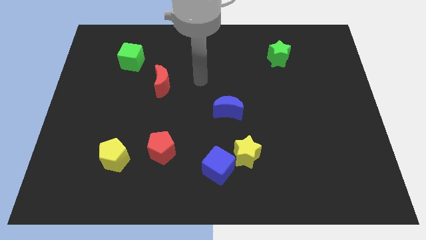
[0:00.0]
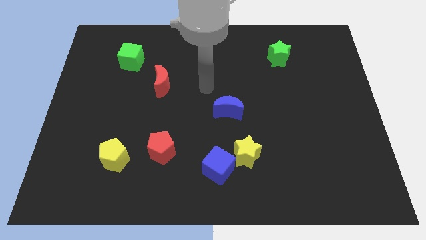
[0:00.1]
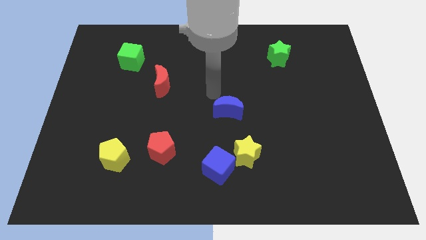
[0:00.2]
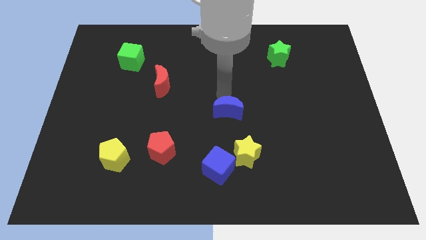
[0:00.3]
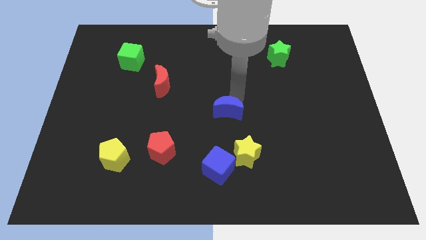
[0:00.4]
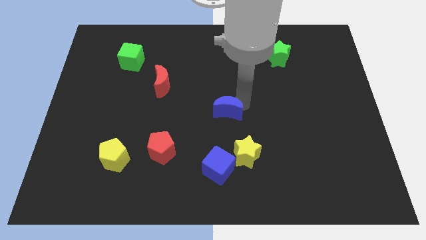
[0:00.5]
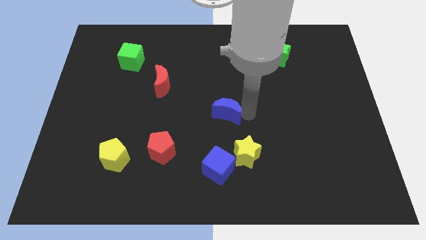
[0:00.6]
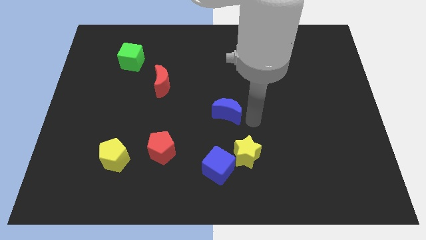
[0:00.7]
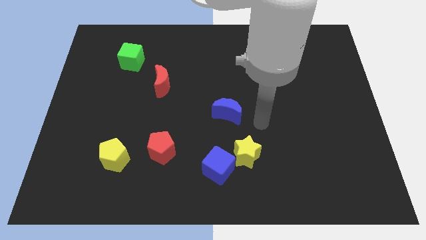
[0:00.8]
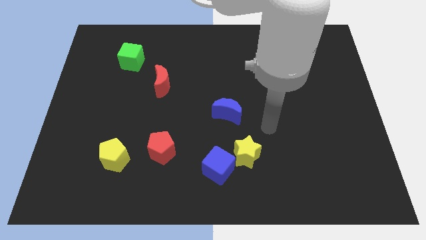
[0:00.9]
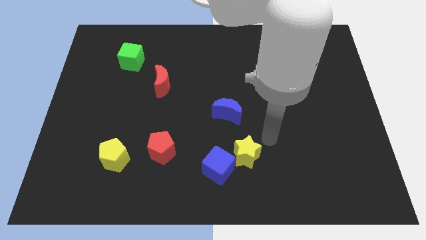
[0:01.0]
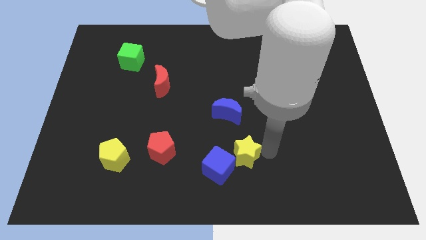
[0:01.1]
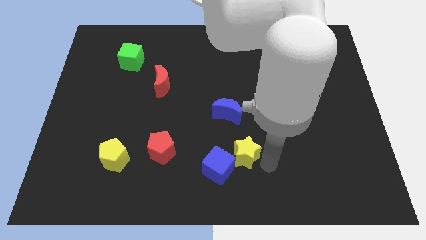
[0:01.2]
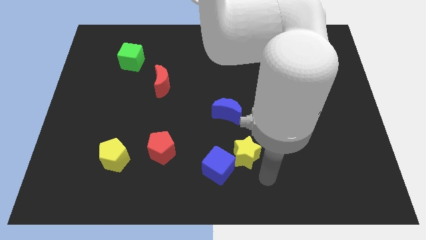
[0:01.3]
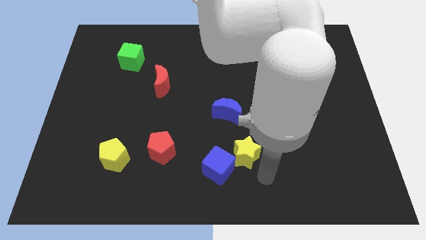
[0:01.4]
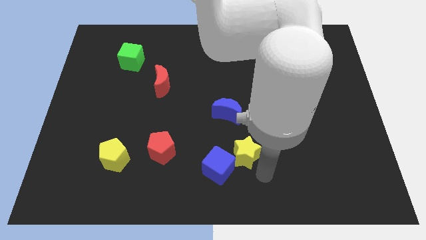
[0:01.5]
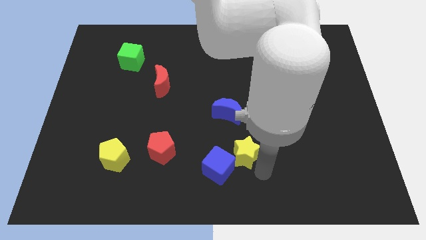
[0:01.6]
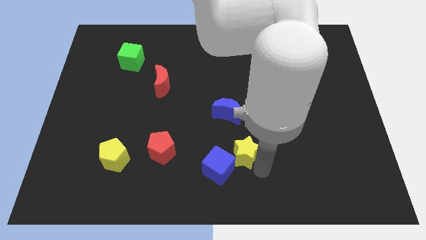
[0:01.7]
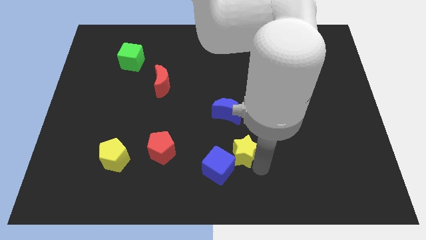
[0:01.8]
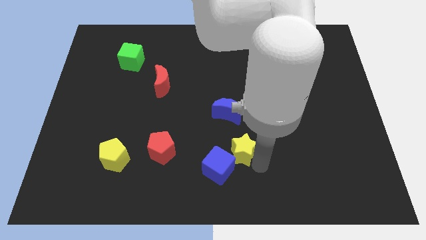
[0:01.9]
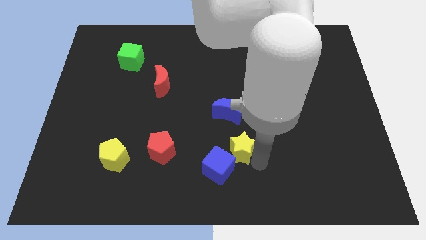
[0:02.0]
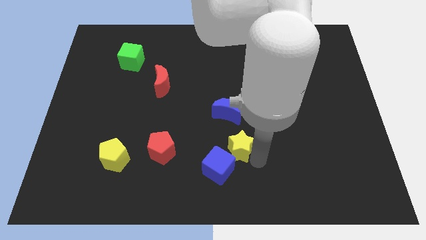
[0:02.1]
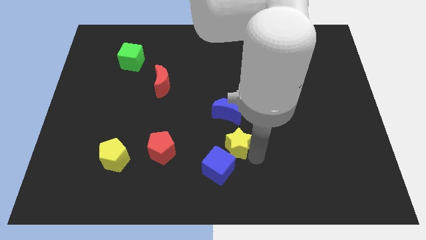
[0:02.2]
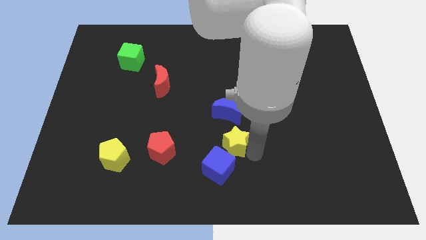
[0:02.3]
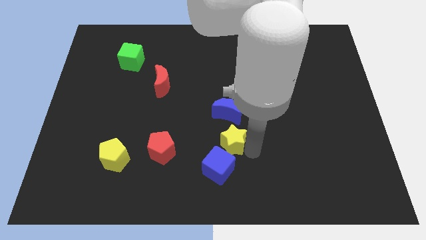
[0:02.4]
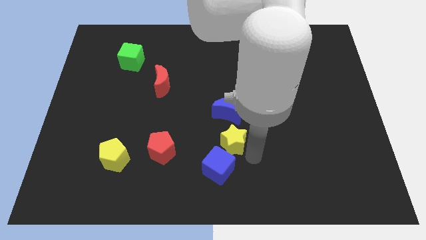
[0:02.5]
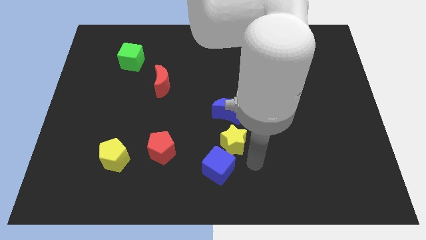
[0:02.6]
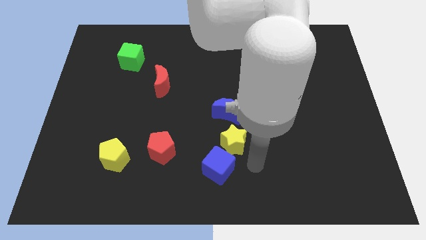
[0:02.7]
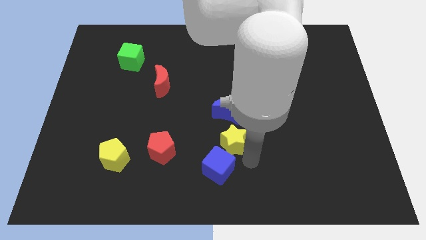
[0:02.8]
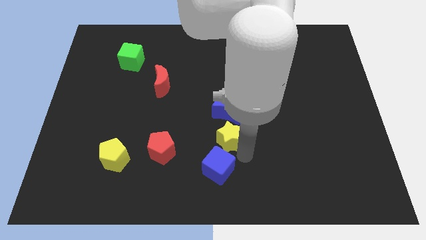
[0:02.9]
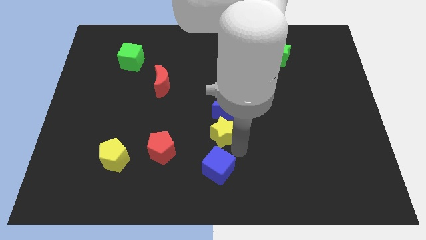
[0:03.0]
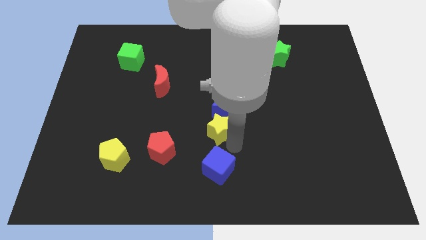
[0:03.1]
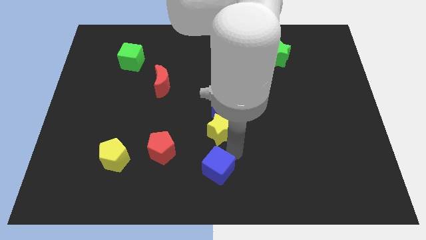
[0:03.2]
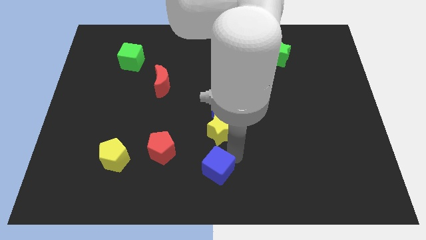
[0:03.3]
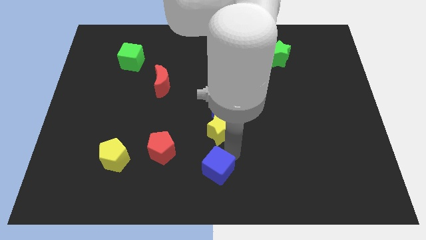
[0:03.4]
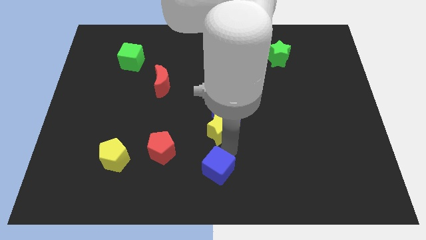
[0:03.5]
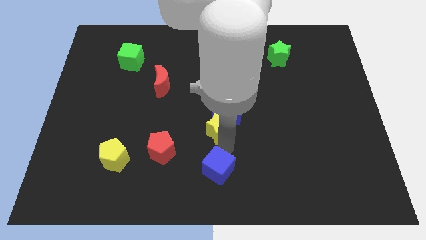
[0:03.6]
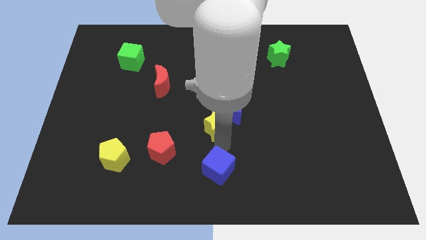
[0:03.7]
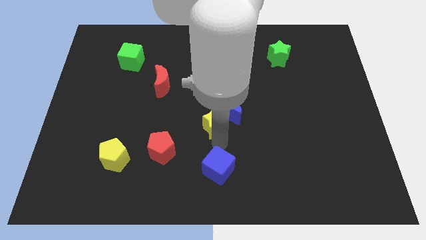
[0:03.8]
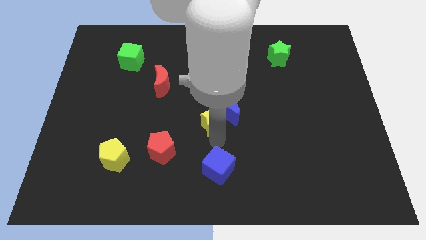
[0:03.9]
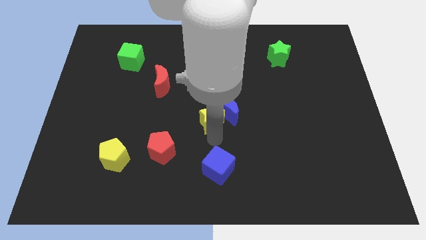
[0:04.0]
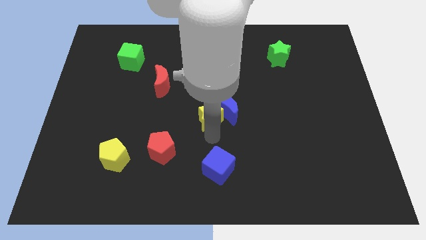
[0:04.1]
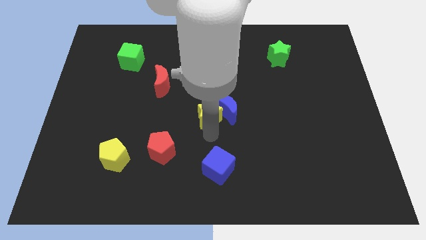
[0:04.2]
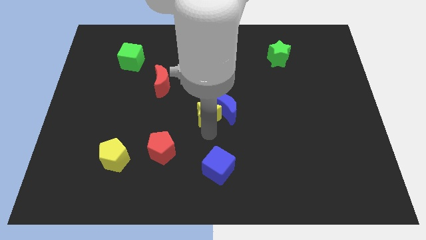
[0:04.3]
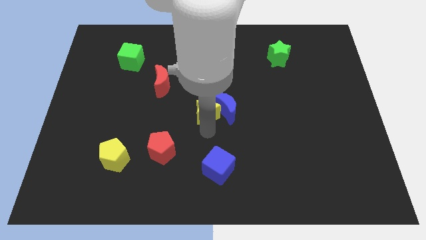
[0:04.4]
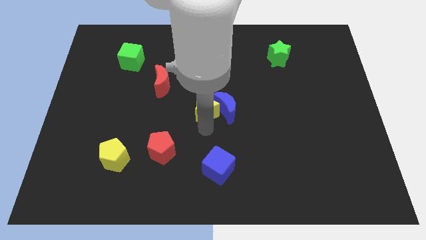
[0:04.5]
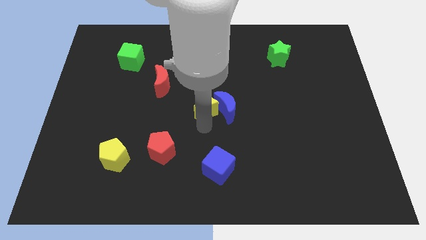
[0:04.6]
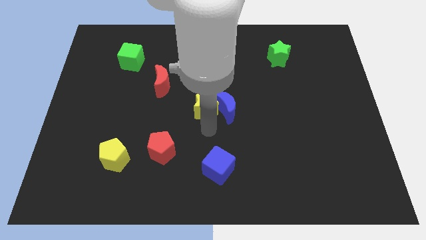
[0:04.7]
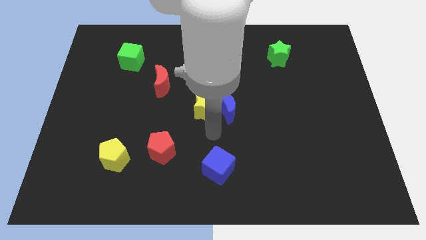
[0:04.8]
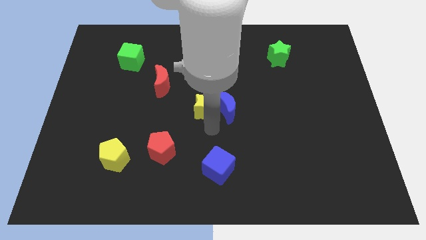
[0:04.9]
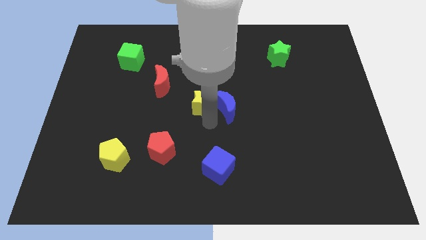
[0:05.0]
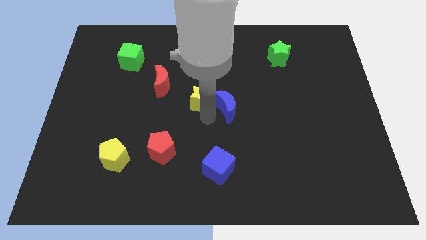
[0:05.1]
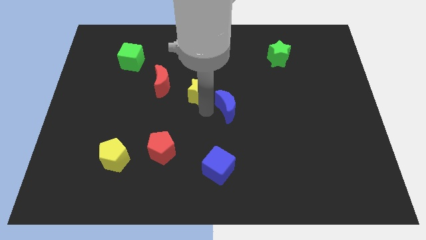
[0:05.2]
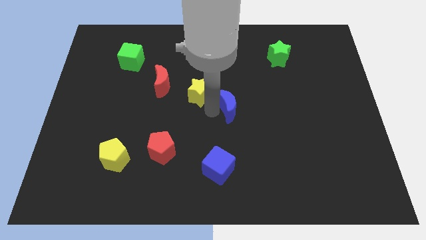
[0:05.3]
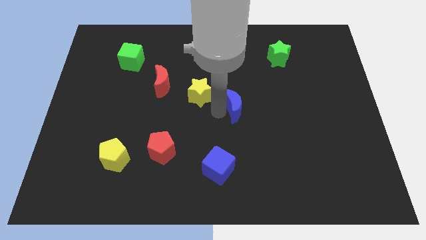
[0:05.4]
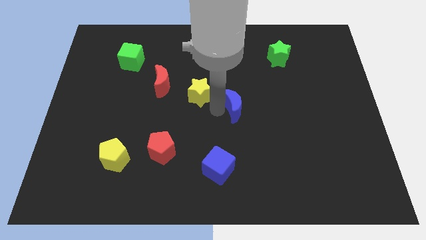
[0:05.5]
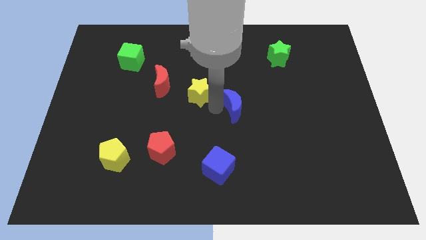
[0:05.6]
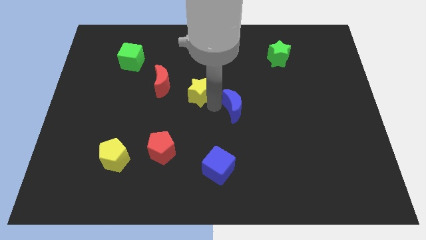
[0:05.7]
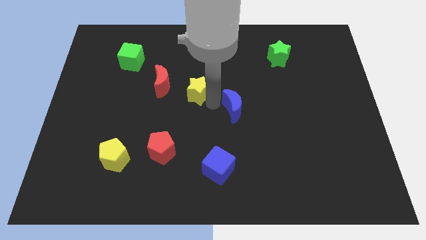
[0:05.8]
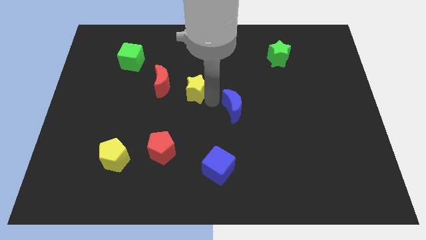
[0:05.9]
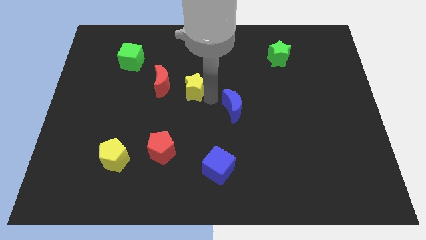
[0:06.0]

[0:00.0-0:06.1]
move the yellow star up and to the left

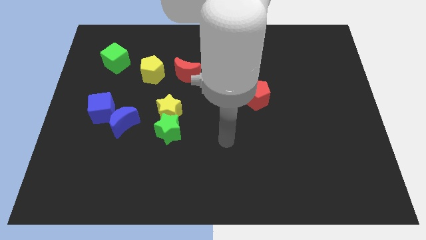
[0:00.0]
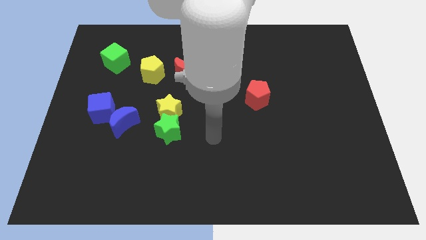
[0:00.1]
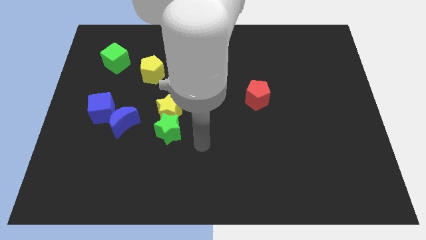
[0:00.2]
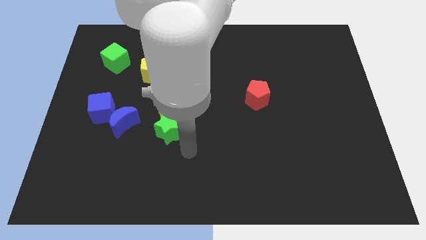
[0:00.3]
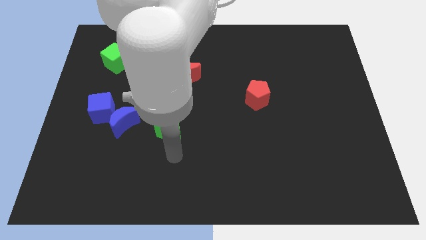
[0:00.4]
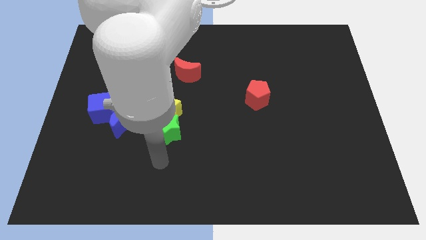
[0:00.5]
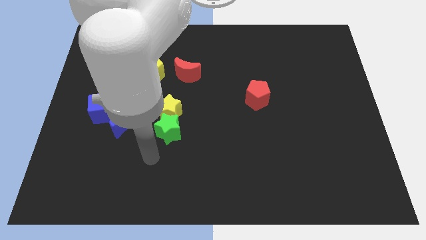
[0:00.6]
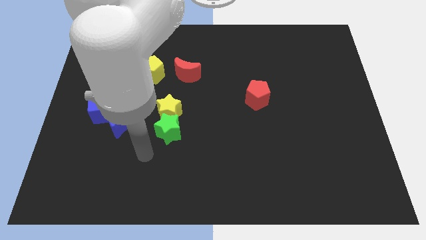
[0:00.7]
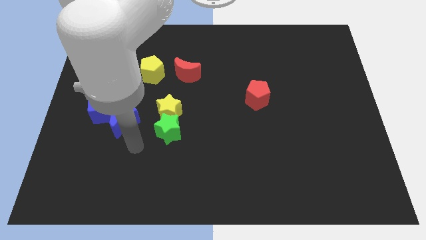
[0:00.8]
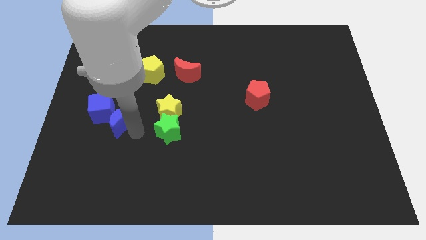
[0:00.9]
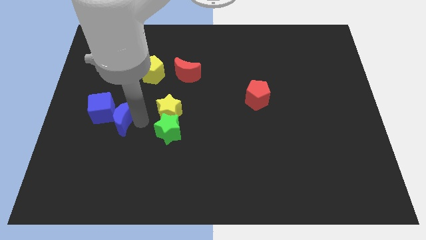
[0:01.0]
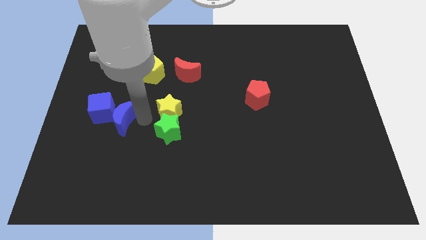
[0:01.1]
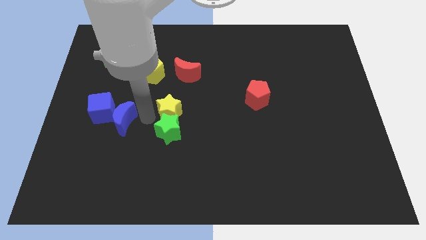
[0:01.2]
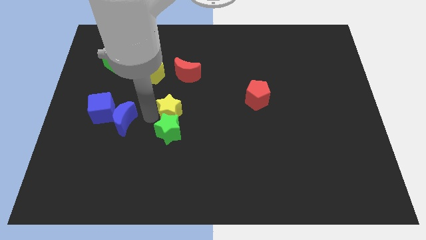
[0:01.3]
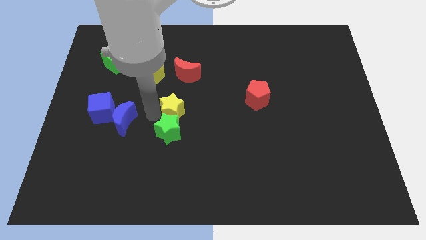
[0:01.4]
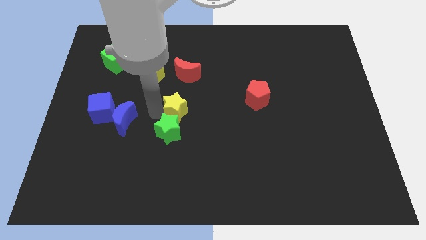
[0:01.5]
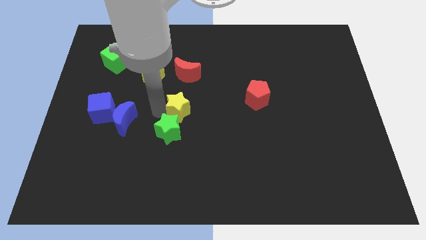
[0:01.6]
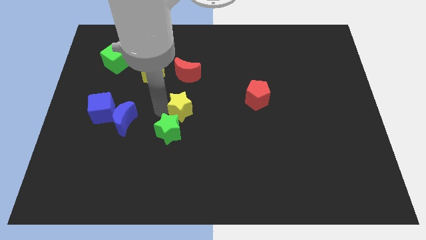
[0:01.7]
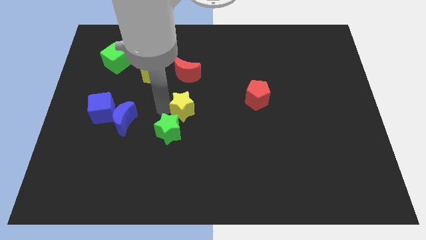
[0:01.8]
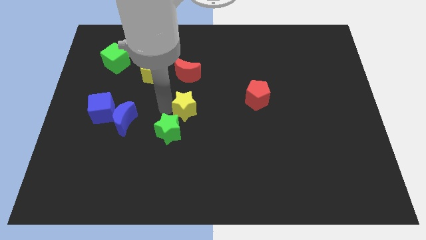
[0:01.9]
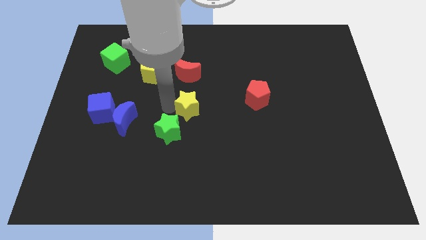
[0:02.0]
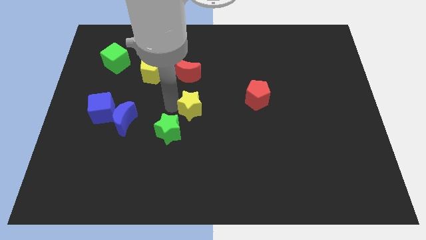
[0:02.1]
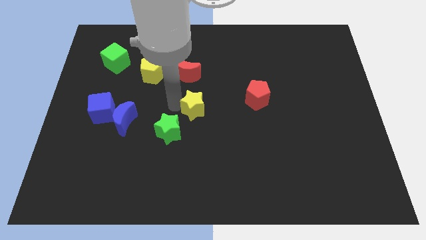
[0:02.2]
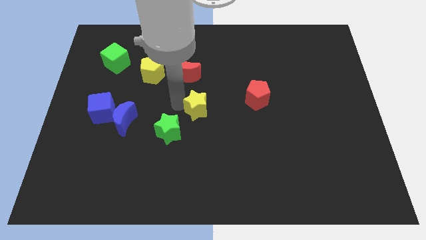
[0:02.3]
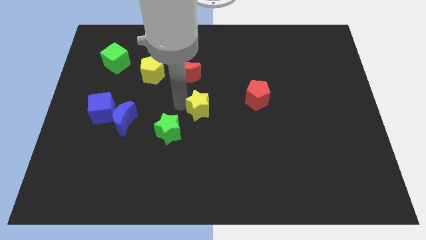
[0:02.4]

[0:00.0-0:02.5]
push the yellow star slightly to the right
